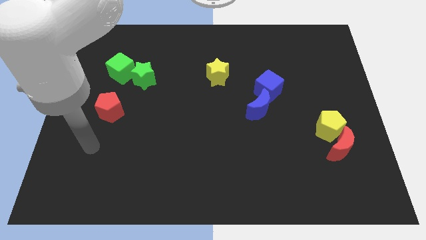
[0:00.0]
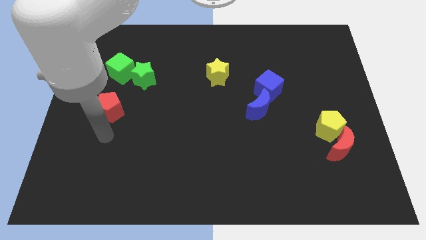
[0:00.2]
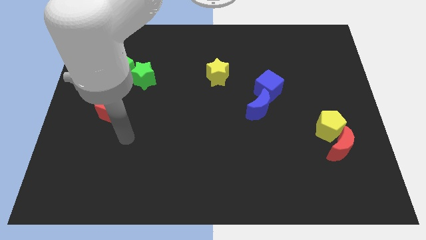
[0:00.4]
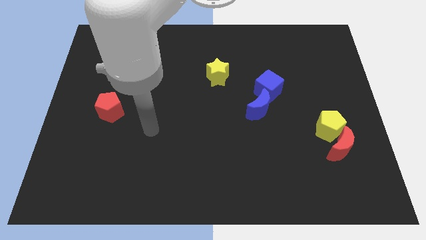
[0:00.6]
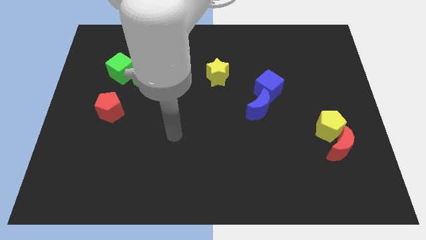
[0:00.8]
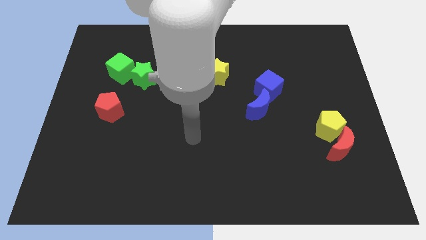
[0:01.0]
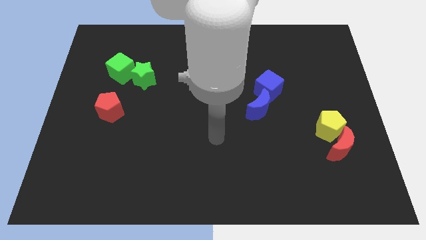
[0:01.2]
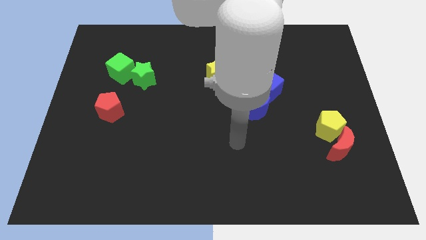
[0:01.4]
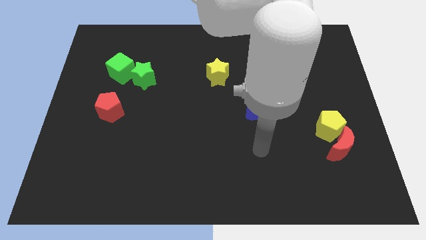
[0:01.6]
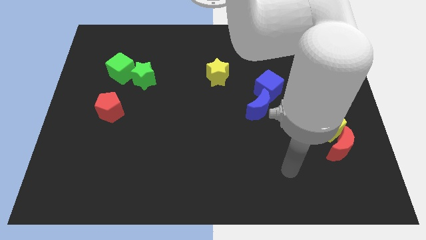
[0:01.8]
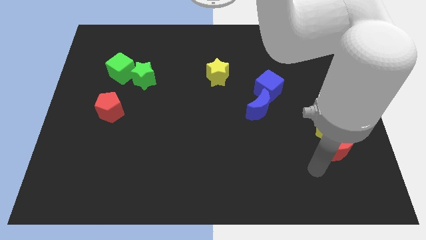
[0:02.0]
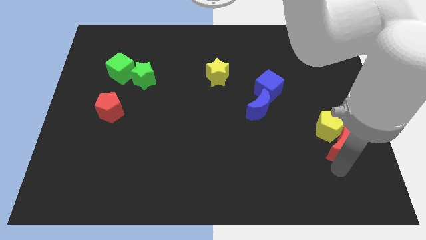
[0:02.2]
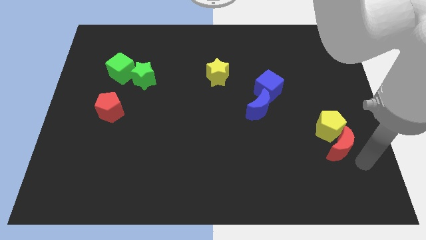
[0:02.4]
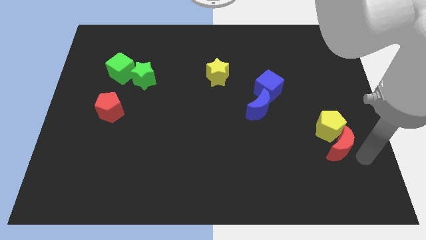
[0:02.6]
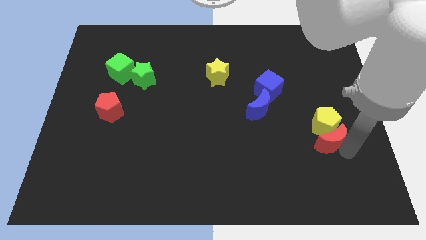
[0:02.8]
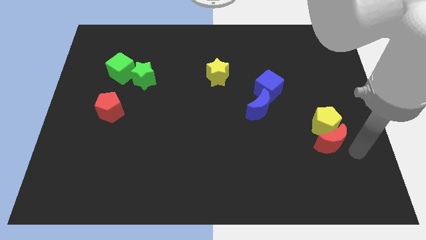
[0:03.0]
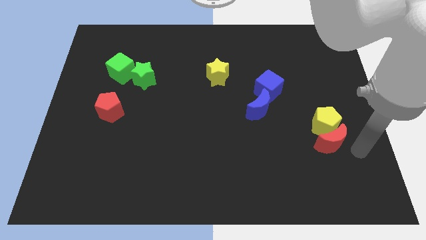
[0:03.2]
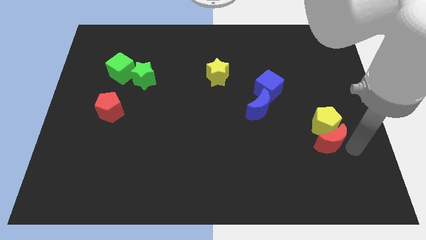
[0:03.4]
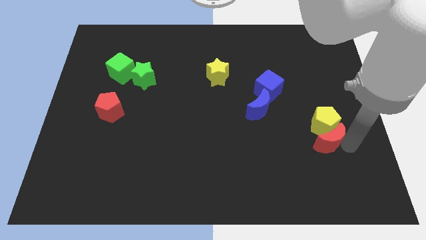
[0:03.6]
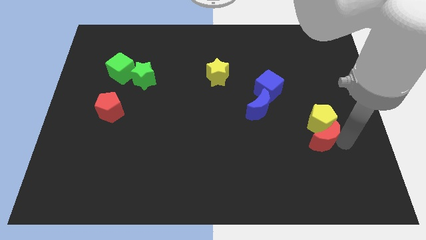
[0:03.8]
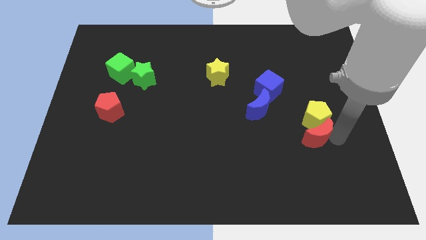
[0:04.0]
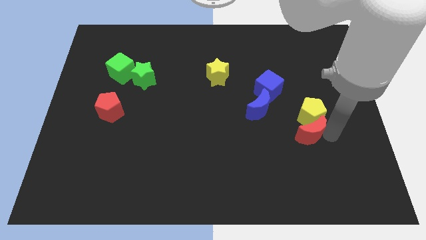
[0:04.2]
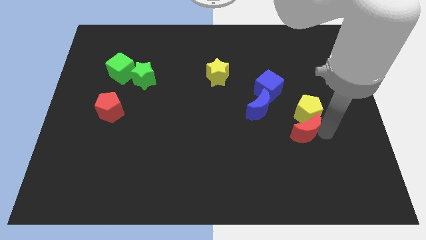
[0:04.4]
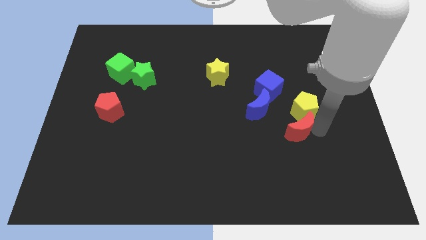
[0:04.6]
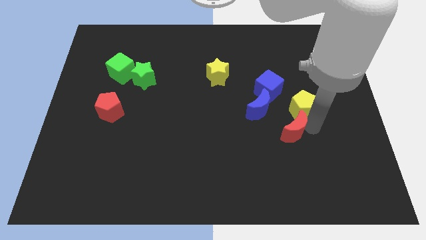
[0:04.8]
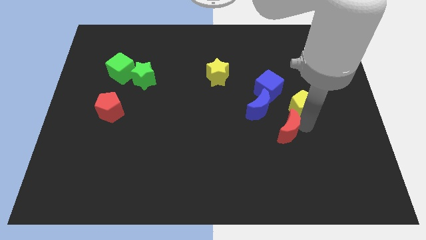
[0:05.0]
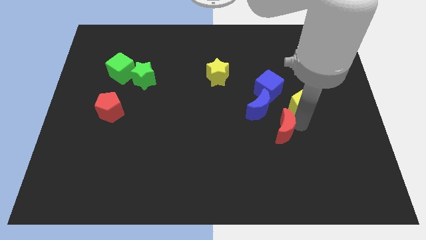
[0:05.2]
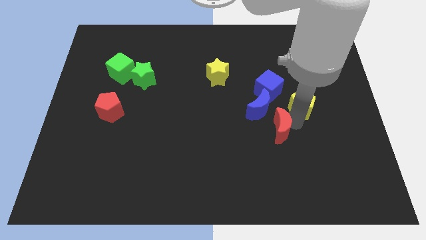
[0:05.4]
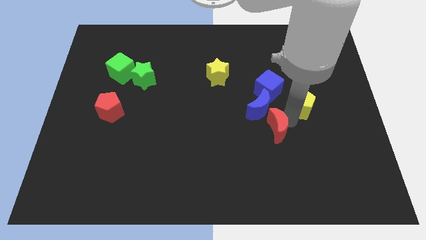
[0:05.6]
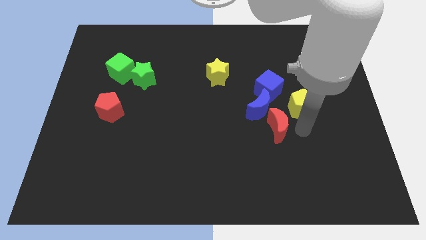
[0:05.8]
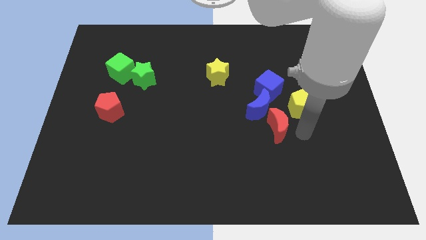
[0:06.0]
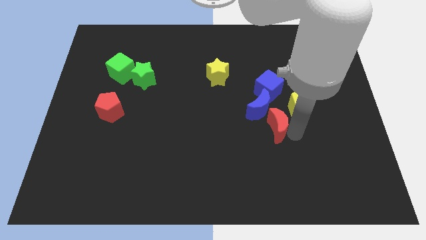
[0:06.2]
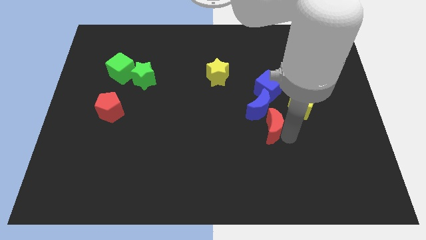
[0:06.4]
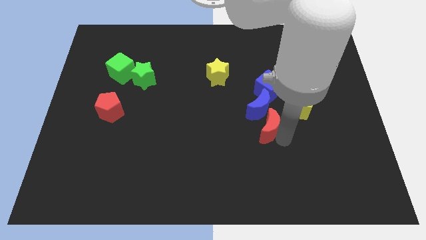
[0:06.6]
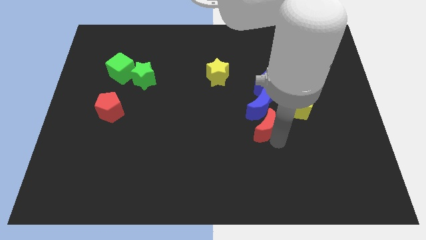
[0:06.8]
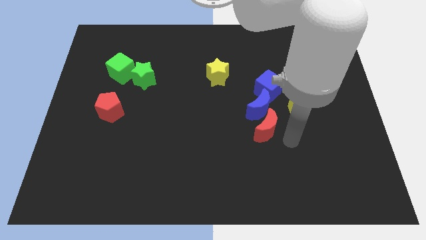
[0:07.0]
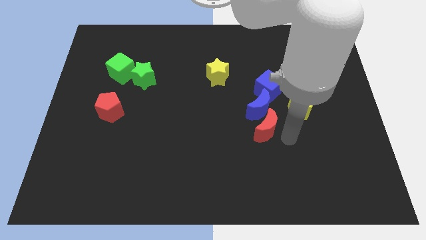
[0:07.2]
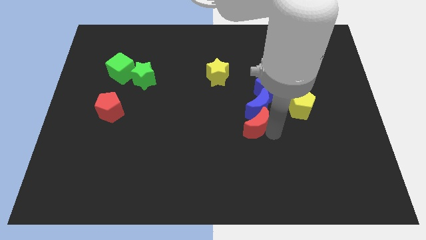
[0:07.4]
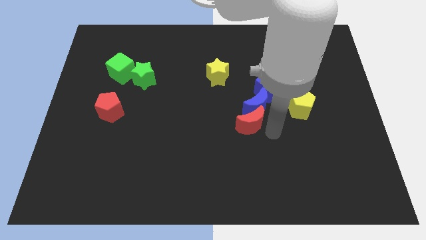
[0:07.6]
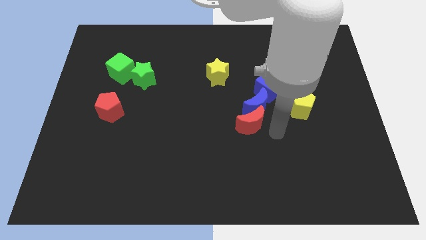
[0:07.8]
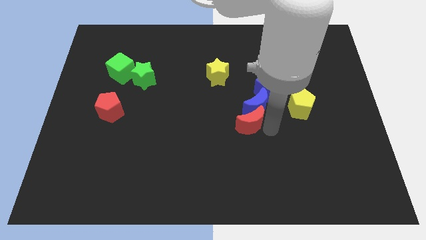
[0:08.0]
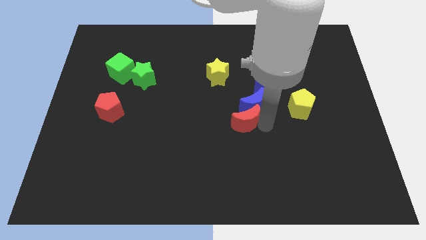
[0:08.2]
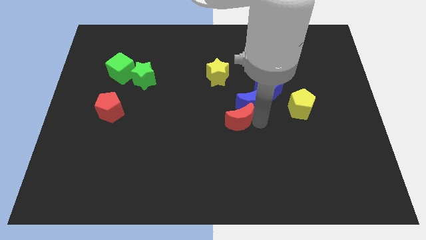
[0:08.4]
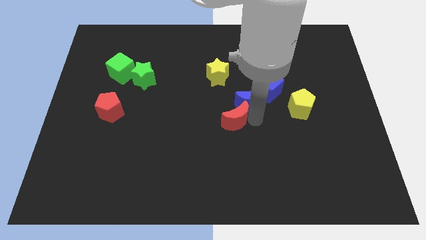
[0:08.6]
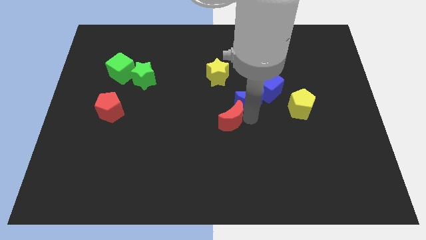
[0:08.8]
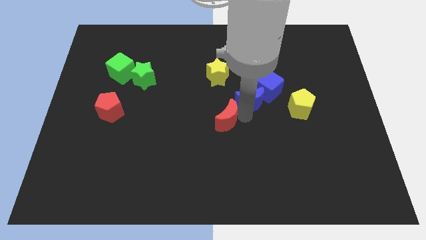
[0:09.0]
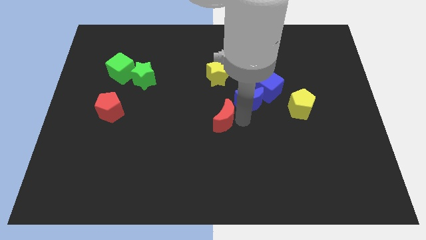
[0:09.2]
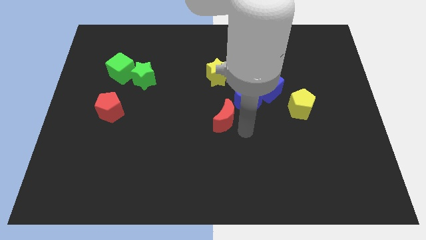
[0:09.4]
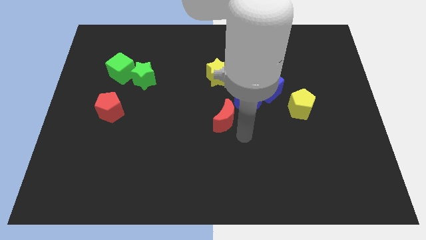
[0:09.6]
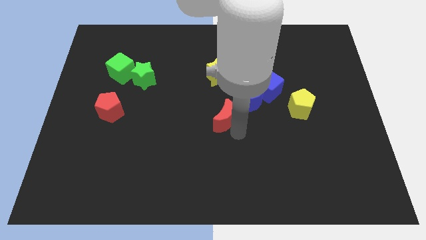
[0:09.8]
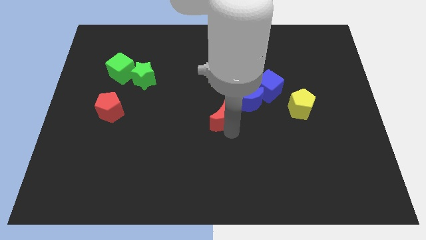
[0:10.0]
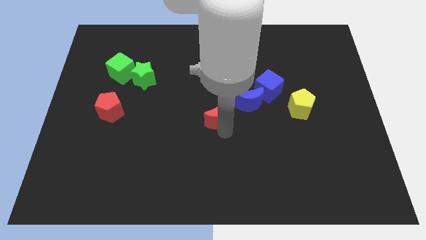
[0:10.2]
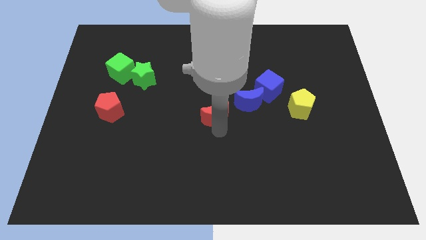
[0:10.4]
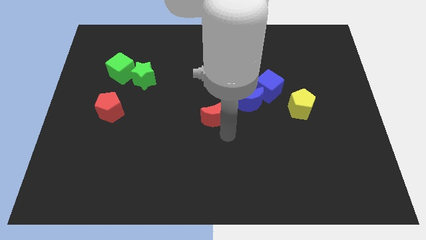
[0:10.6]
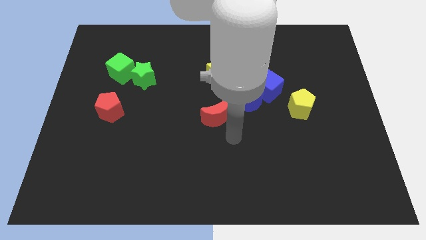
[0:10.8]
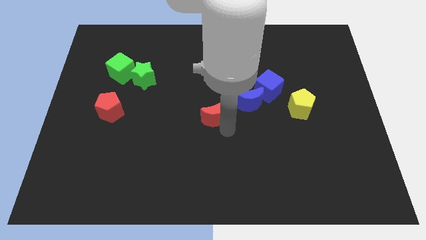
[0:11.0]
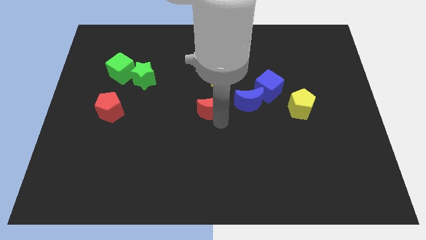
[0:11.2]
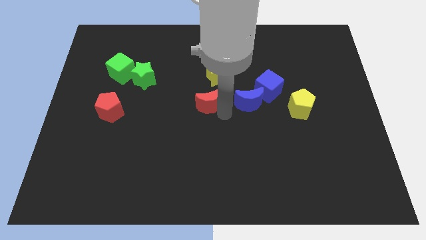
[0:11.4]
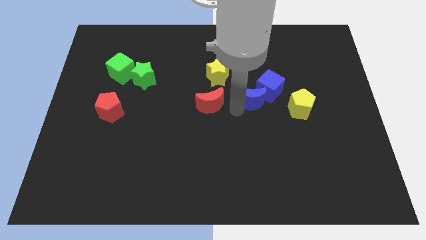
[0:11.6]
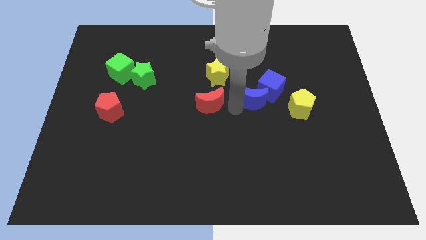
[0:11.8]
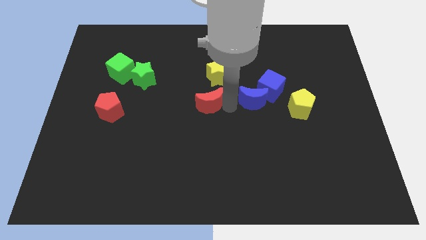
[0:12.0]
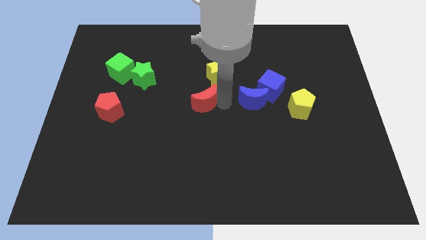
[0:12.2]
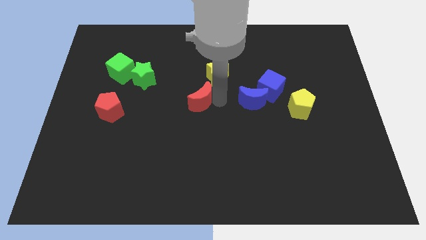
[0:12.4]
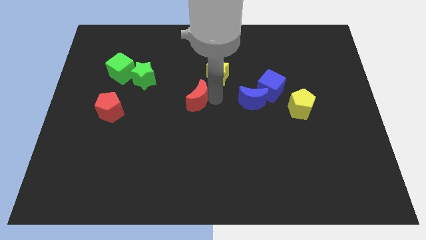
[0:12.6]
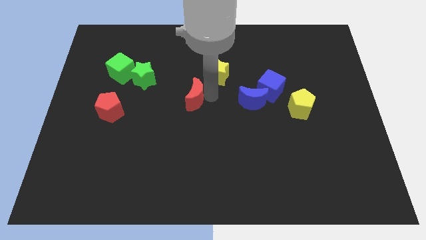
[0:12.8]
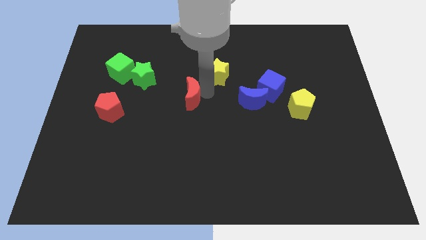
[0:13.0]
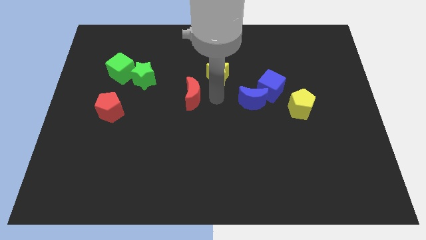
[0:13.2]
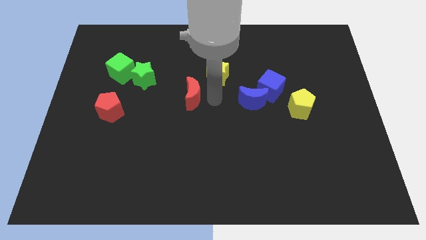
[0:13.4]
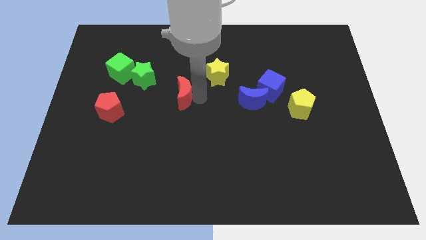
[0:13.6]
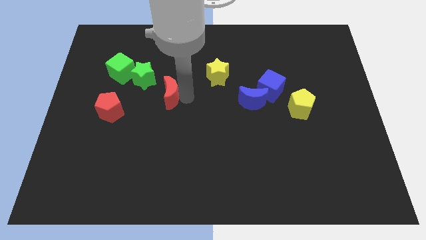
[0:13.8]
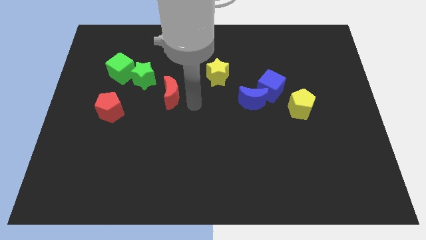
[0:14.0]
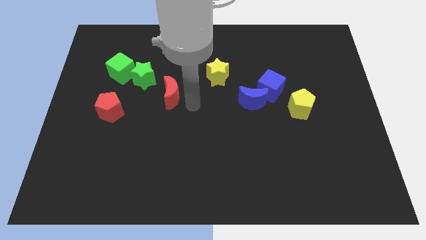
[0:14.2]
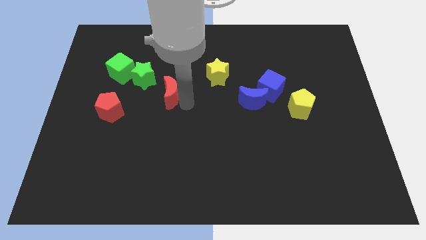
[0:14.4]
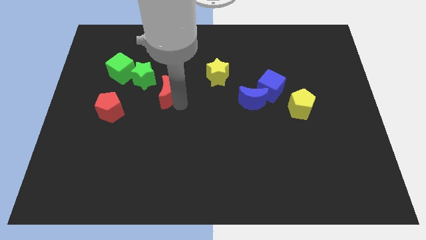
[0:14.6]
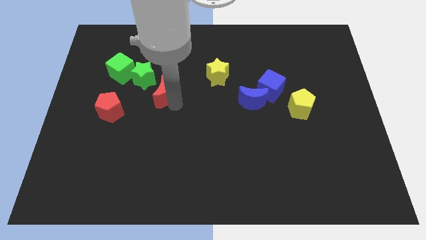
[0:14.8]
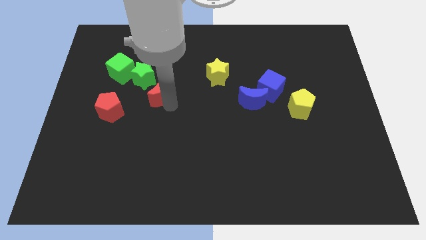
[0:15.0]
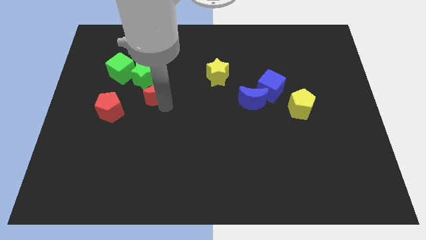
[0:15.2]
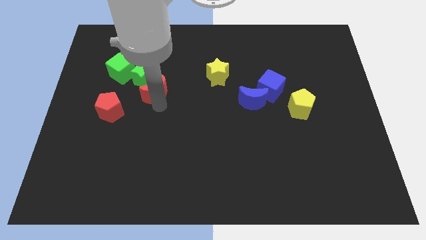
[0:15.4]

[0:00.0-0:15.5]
push the red moon towards the green star

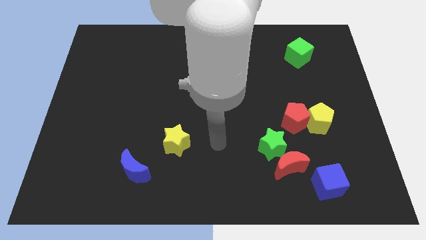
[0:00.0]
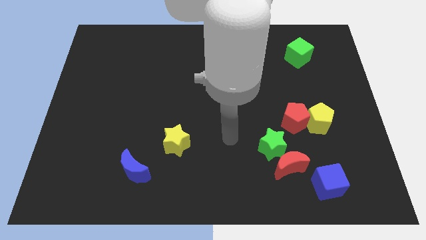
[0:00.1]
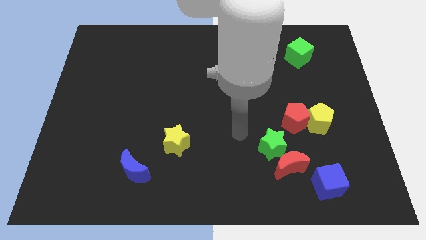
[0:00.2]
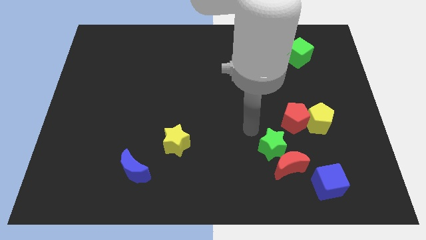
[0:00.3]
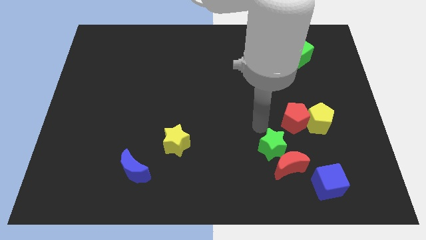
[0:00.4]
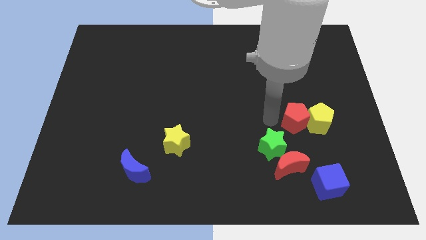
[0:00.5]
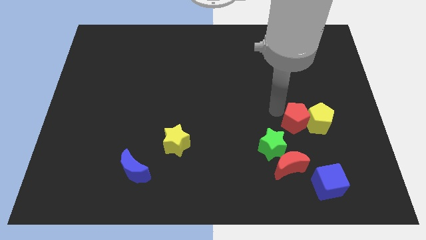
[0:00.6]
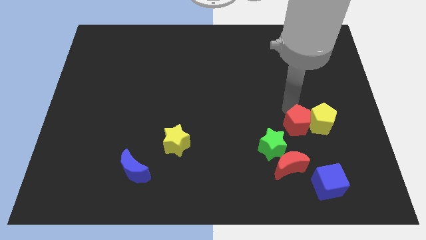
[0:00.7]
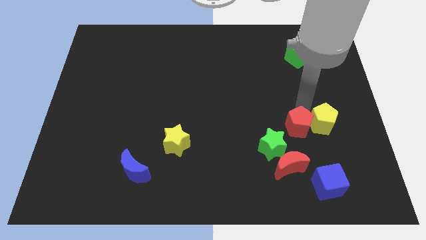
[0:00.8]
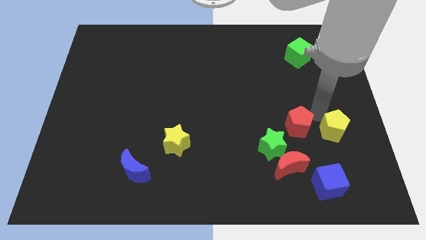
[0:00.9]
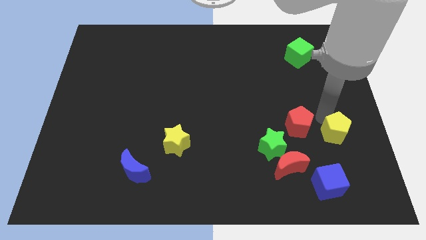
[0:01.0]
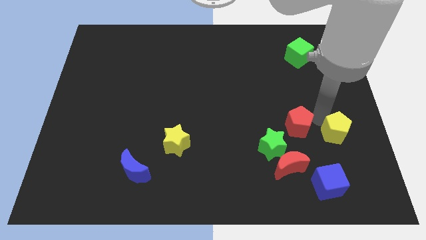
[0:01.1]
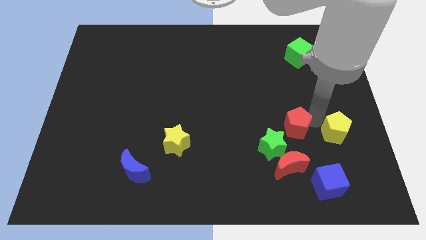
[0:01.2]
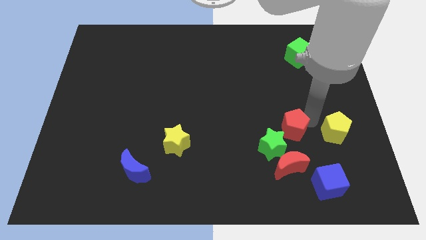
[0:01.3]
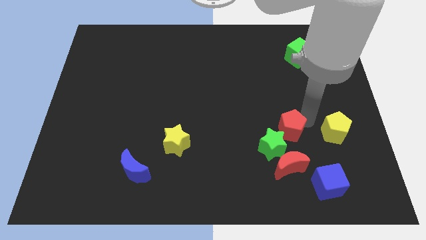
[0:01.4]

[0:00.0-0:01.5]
slide the red pentagon close to the green star
